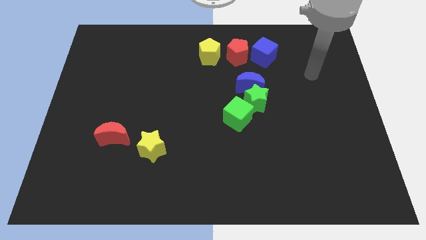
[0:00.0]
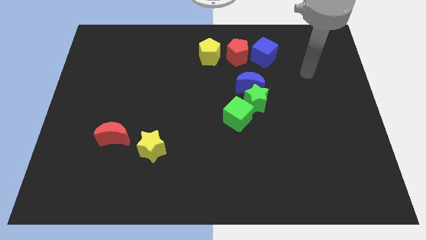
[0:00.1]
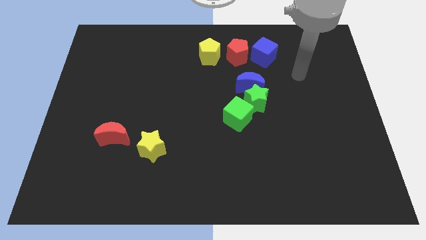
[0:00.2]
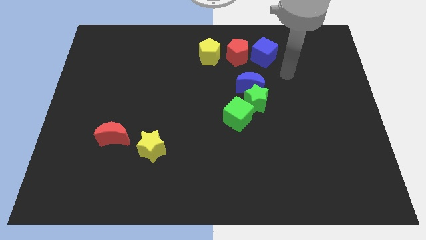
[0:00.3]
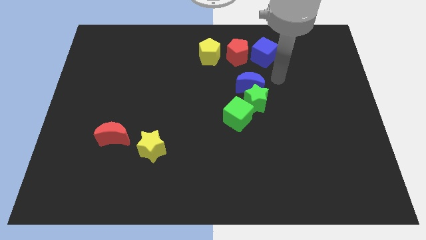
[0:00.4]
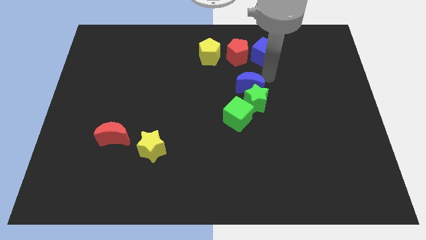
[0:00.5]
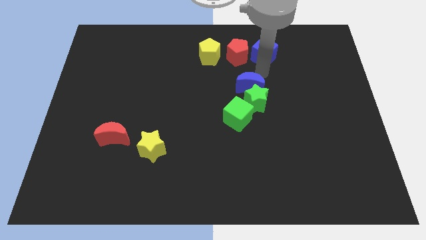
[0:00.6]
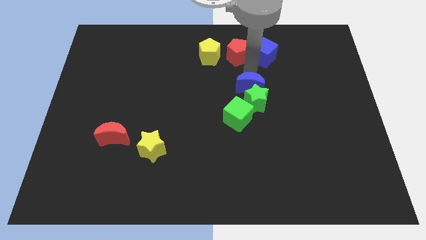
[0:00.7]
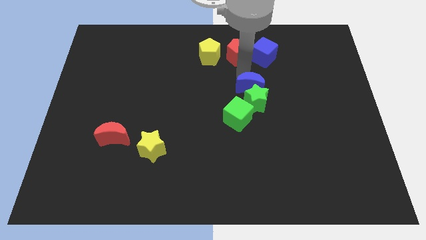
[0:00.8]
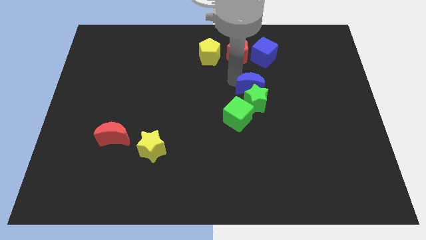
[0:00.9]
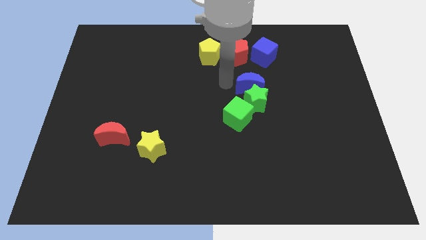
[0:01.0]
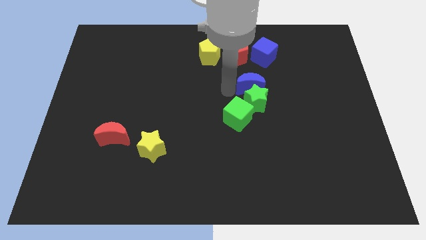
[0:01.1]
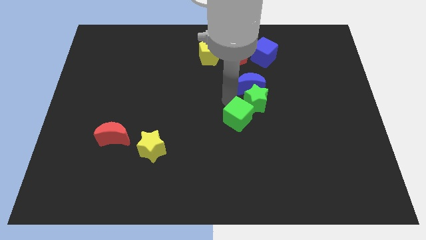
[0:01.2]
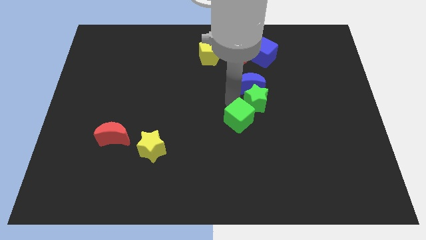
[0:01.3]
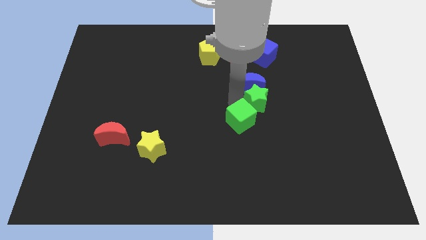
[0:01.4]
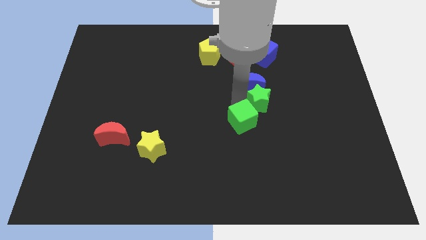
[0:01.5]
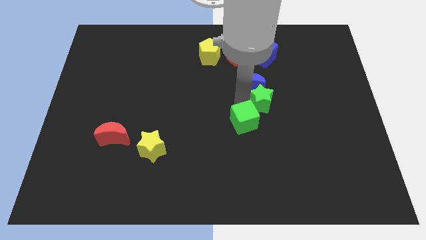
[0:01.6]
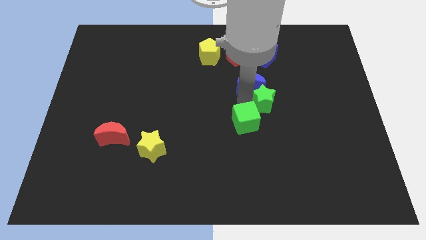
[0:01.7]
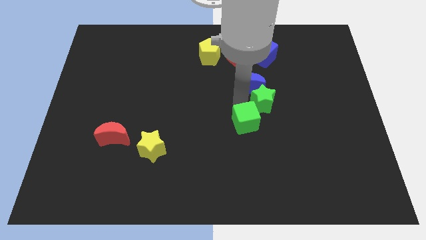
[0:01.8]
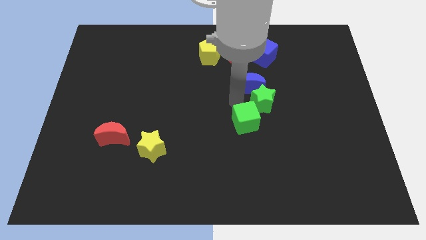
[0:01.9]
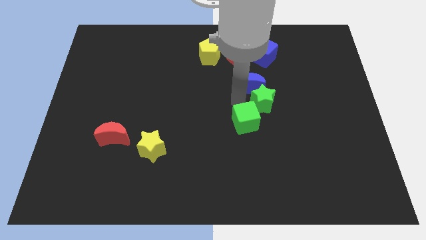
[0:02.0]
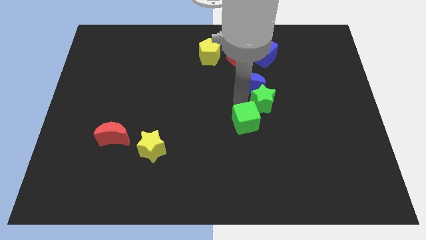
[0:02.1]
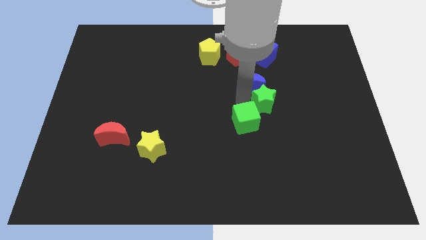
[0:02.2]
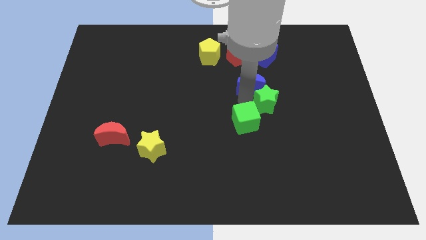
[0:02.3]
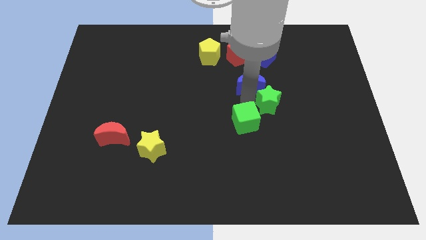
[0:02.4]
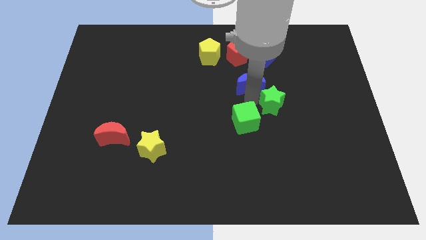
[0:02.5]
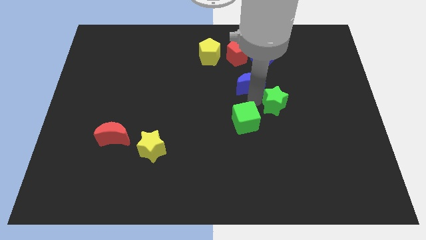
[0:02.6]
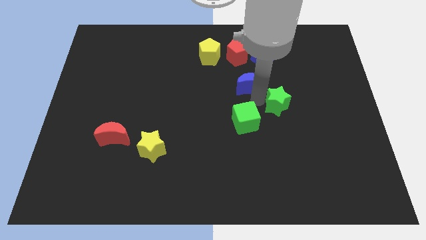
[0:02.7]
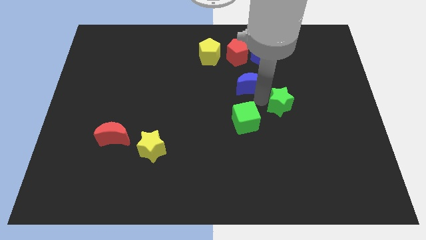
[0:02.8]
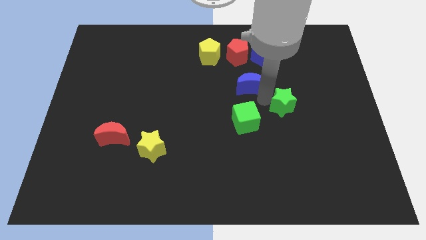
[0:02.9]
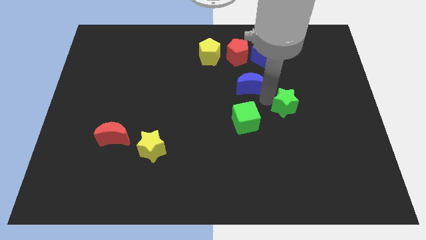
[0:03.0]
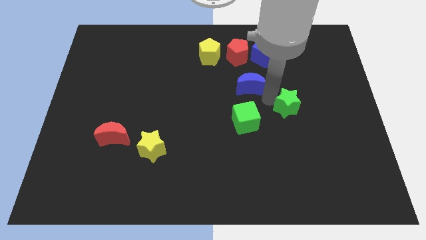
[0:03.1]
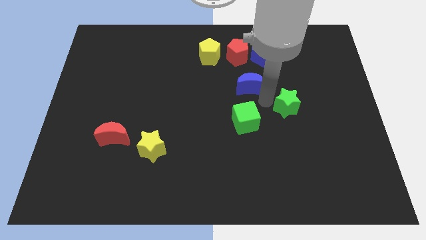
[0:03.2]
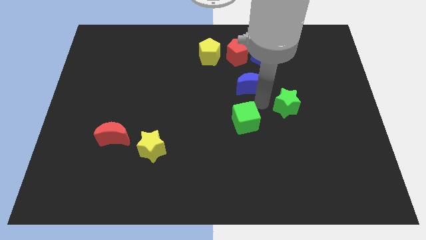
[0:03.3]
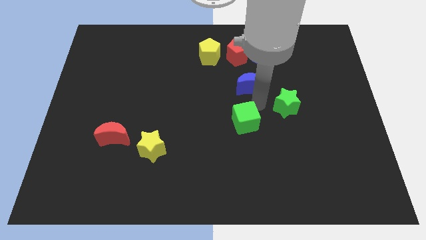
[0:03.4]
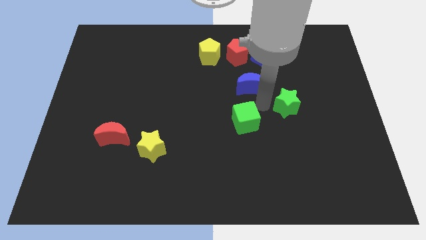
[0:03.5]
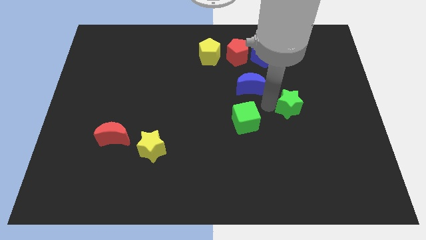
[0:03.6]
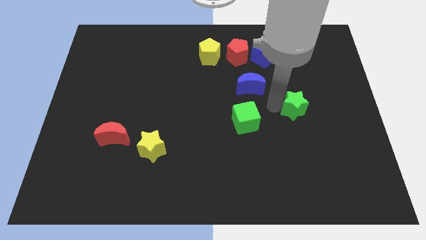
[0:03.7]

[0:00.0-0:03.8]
move the green star away from the blue moon and green cube

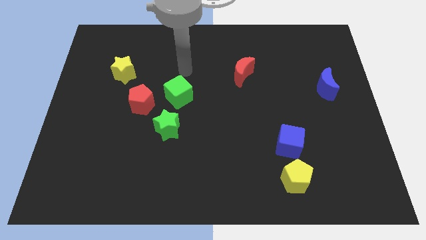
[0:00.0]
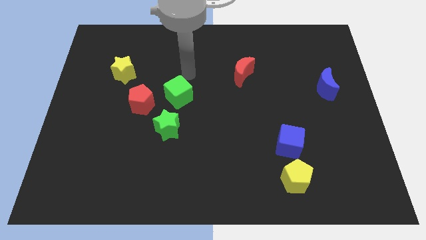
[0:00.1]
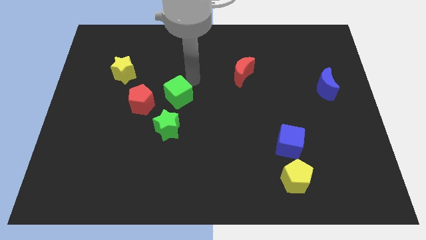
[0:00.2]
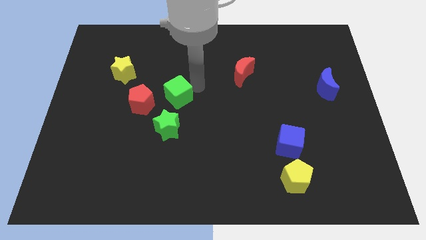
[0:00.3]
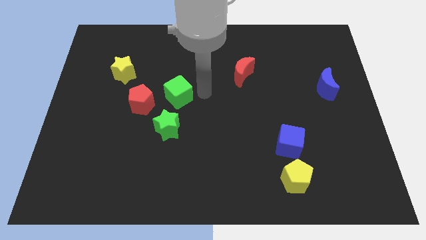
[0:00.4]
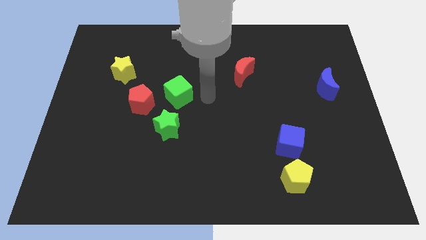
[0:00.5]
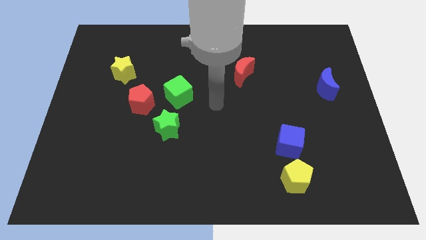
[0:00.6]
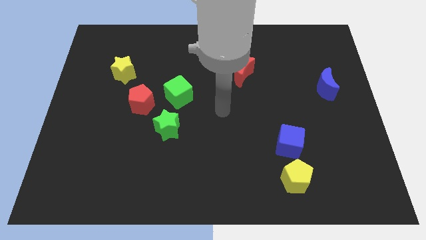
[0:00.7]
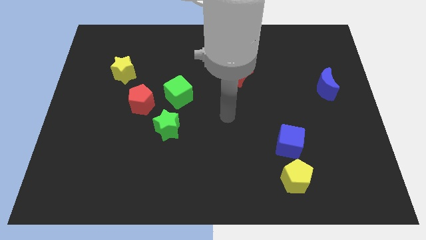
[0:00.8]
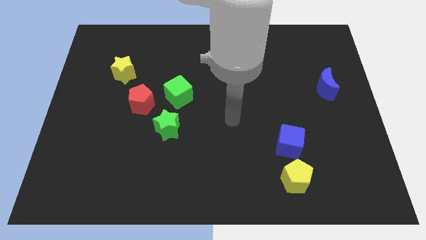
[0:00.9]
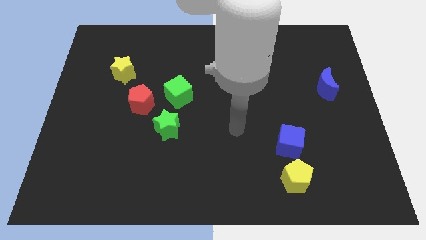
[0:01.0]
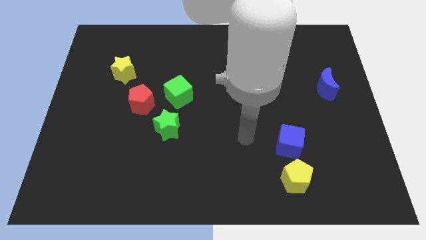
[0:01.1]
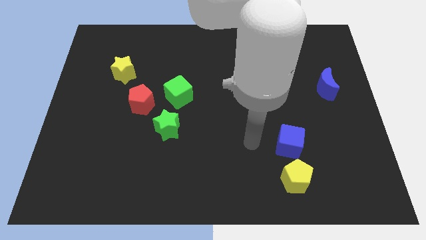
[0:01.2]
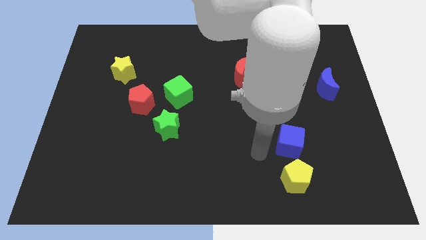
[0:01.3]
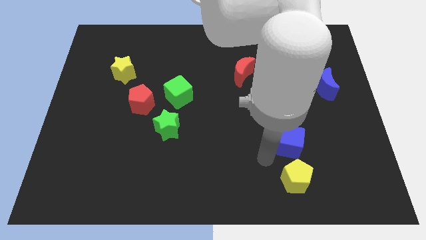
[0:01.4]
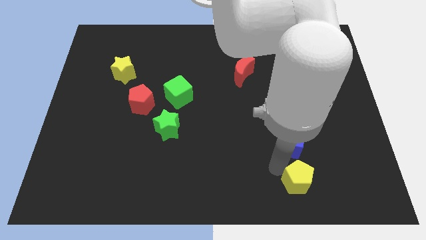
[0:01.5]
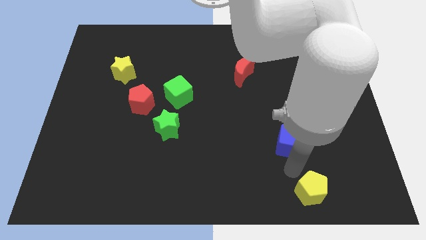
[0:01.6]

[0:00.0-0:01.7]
pull the blue cube apart from the yellow pentagon

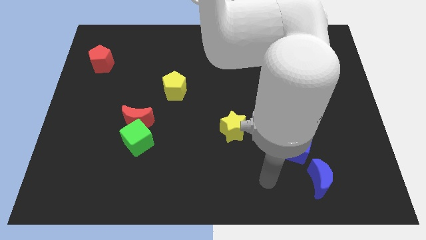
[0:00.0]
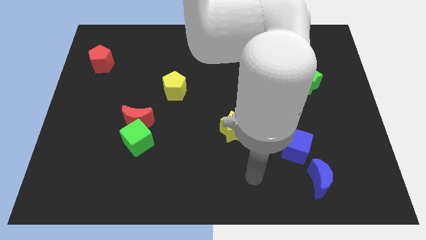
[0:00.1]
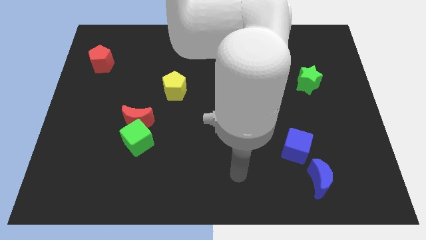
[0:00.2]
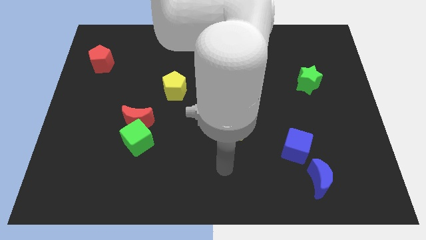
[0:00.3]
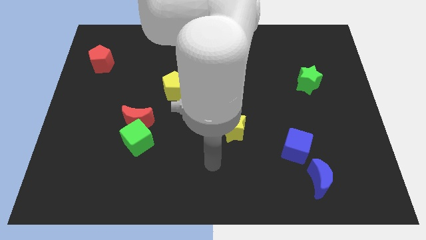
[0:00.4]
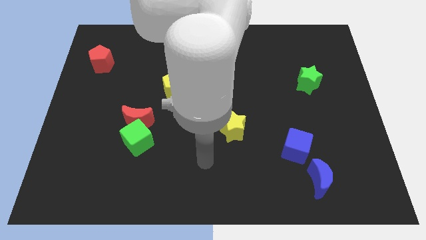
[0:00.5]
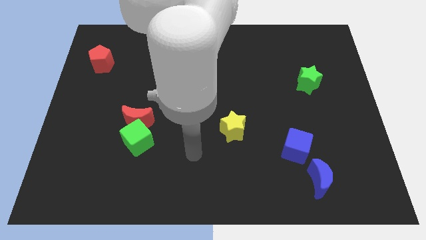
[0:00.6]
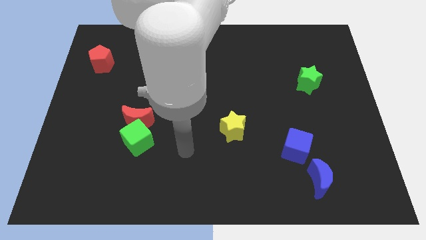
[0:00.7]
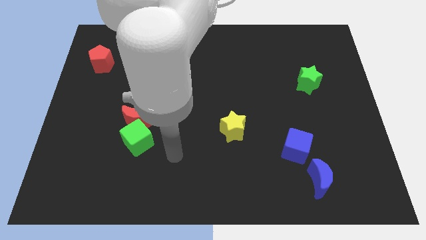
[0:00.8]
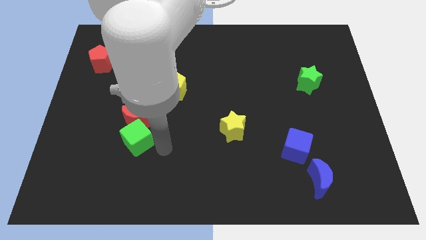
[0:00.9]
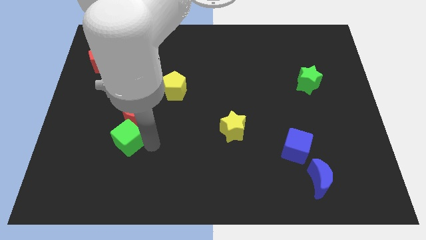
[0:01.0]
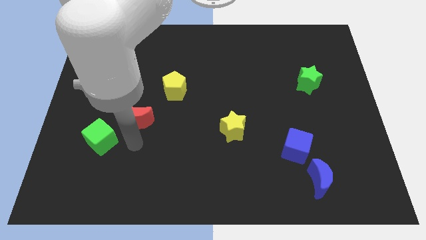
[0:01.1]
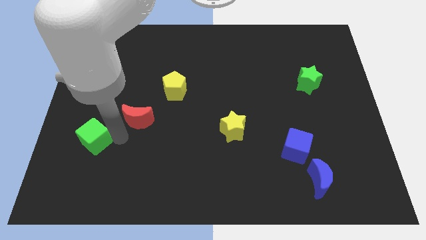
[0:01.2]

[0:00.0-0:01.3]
separate the red moon from the green cube

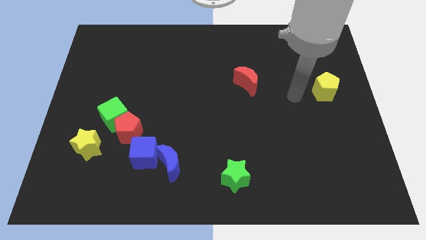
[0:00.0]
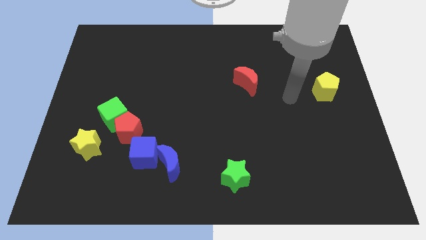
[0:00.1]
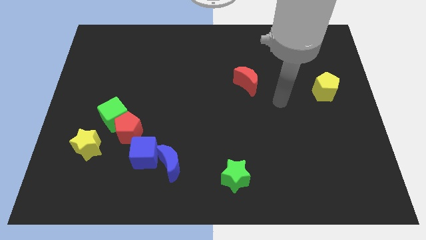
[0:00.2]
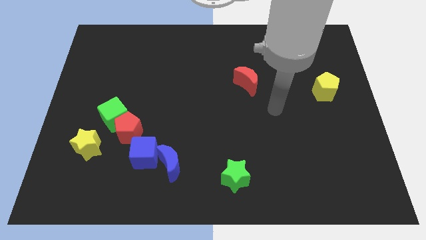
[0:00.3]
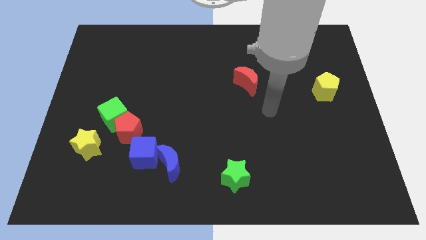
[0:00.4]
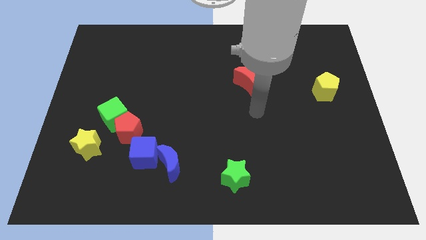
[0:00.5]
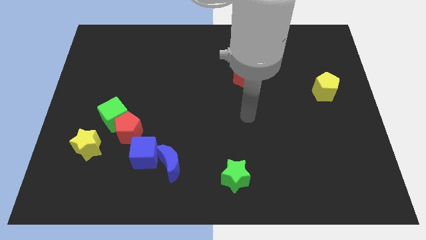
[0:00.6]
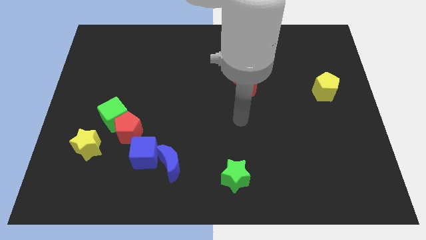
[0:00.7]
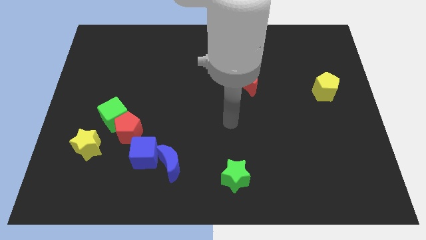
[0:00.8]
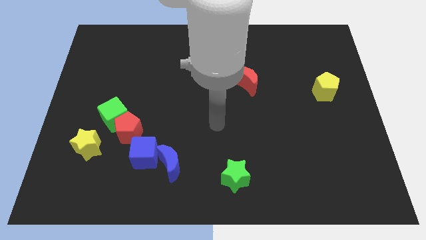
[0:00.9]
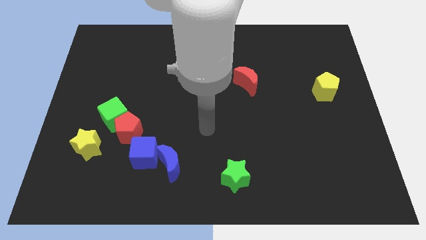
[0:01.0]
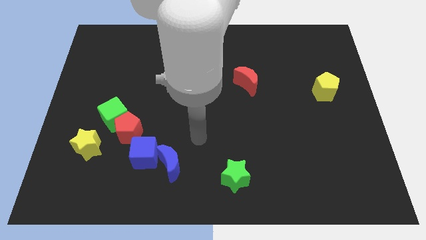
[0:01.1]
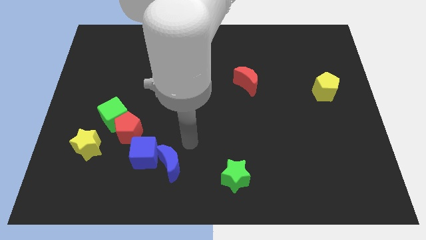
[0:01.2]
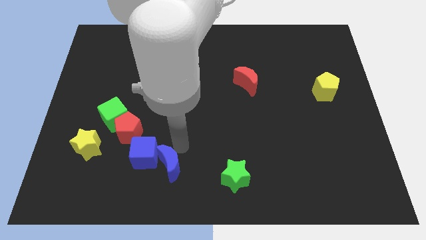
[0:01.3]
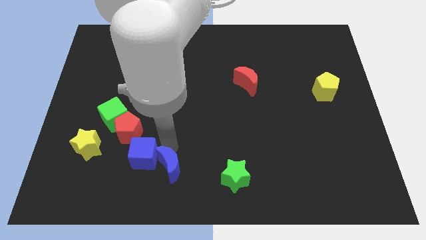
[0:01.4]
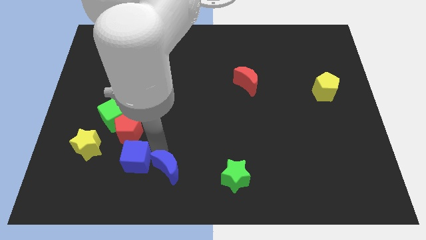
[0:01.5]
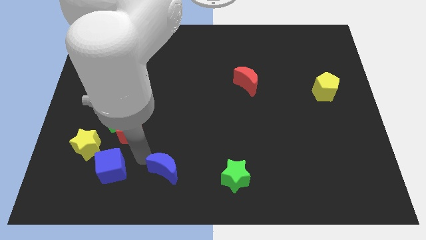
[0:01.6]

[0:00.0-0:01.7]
pull the blue moon apart from the blue cube
